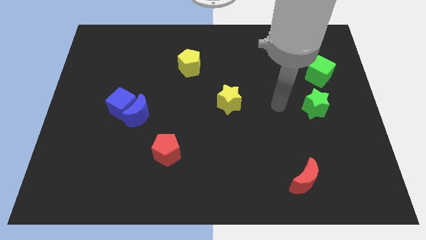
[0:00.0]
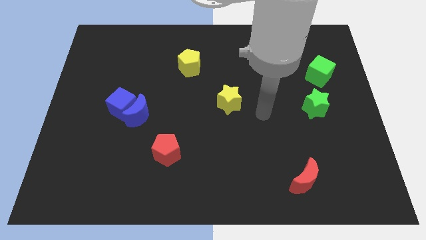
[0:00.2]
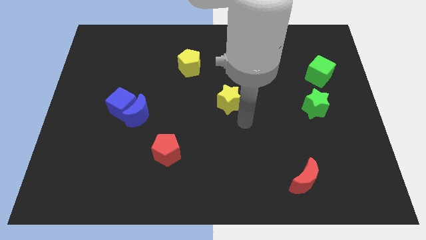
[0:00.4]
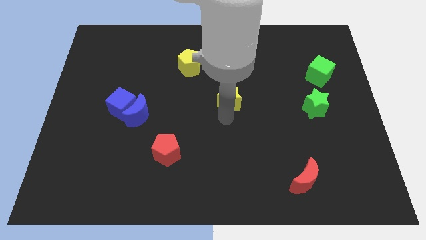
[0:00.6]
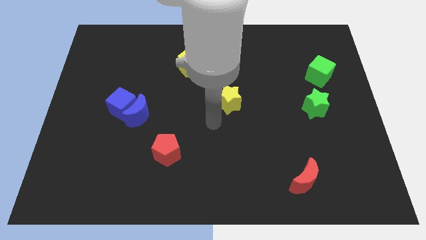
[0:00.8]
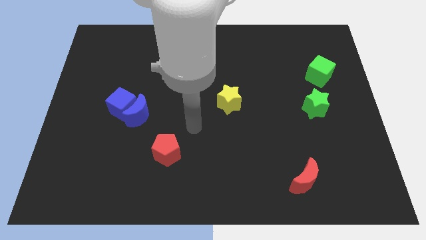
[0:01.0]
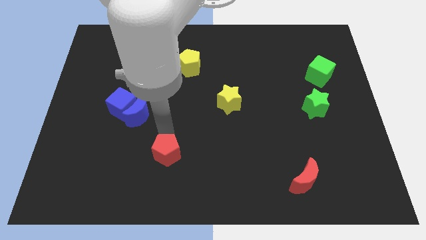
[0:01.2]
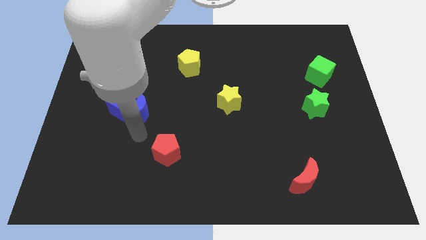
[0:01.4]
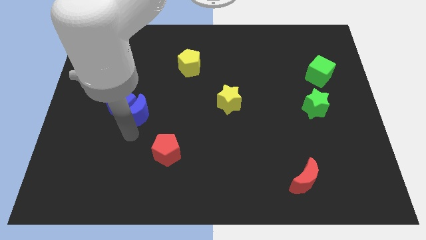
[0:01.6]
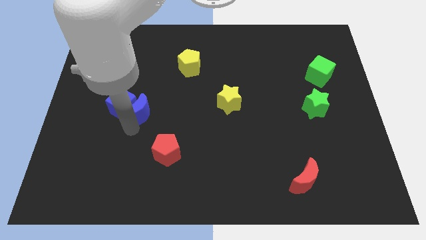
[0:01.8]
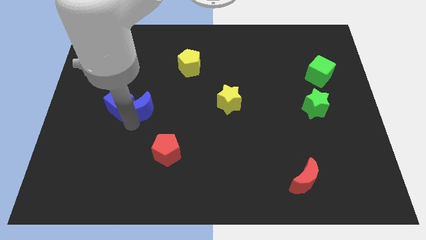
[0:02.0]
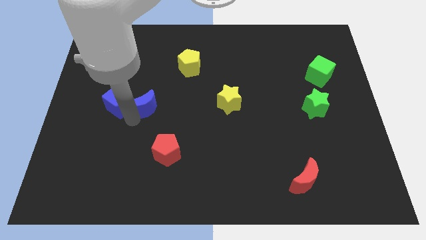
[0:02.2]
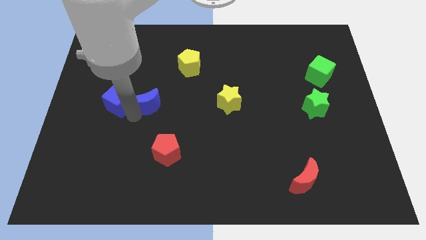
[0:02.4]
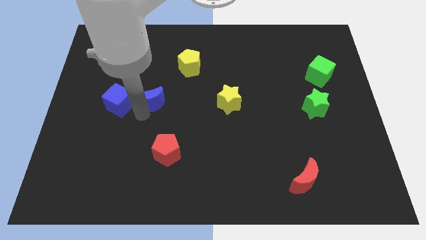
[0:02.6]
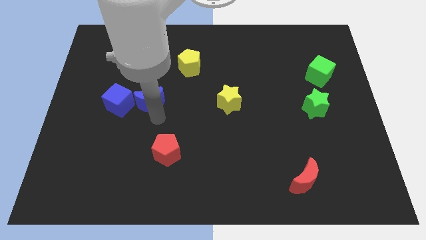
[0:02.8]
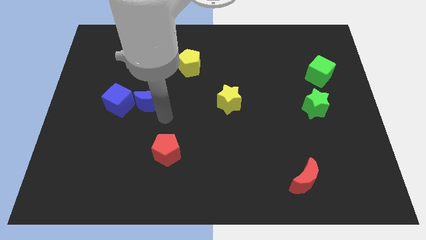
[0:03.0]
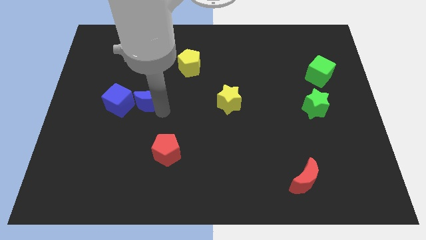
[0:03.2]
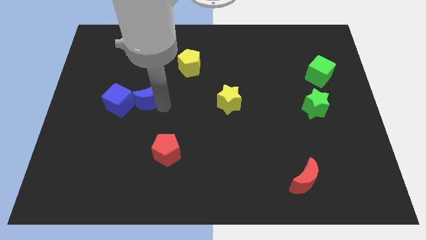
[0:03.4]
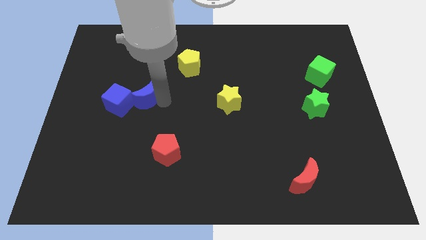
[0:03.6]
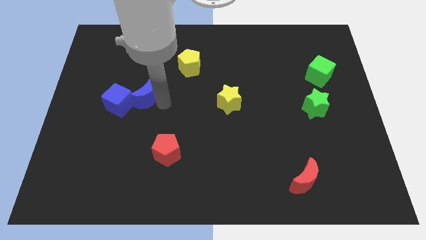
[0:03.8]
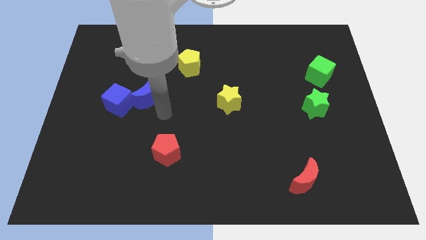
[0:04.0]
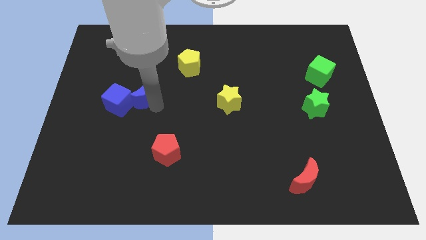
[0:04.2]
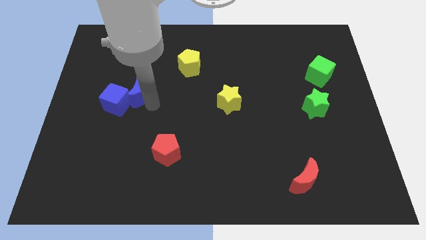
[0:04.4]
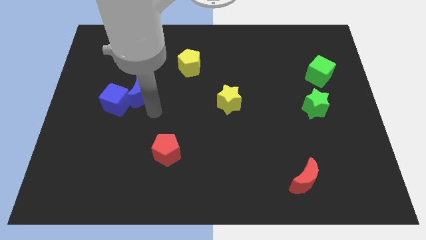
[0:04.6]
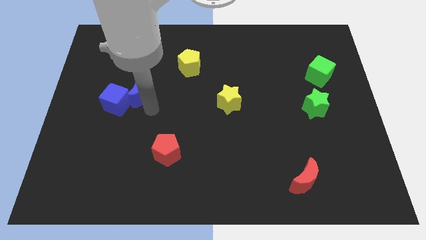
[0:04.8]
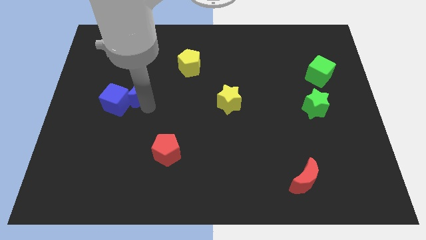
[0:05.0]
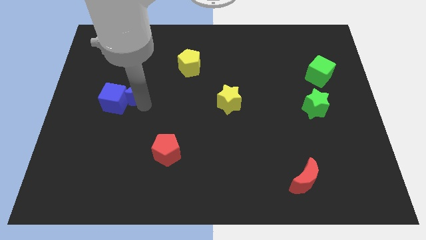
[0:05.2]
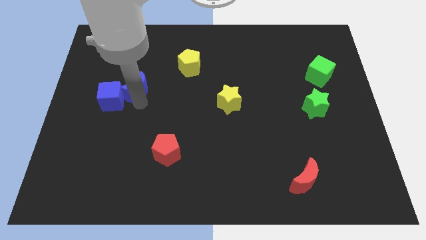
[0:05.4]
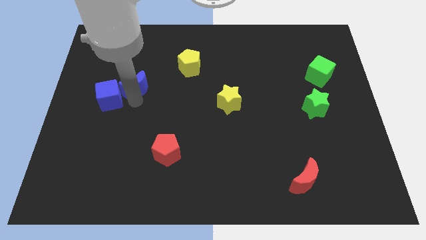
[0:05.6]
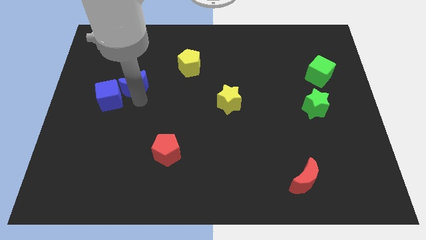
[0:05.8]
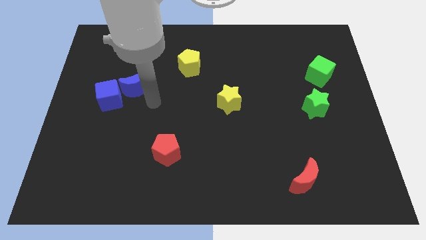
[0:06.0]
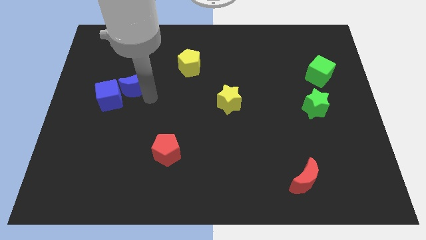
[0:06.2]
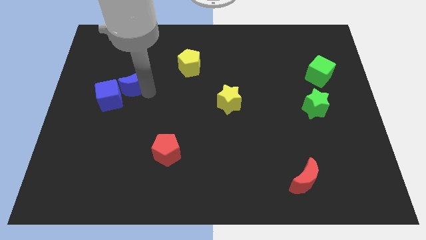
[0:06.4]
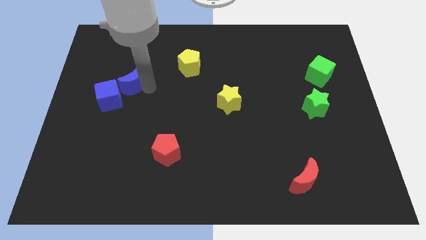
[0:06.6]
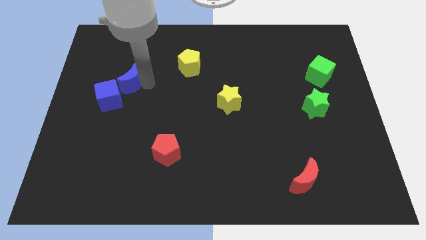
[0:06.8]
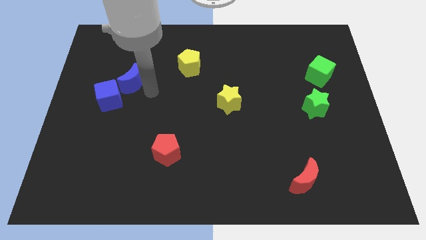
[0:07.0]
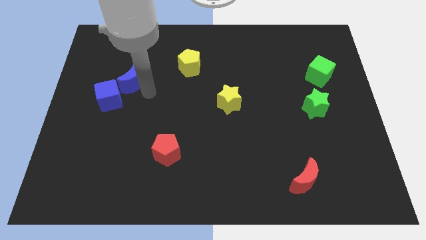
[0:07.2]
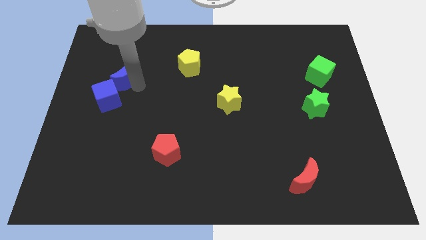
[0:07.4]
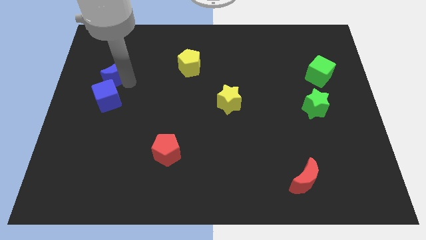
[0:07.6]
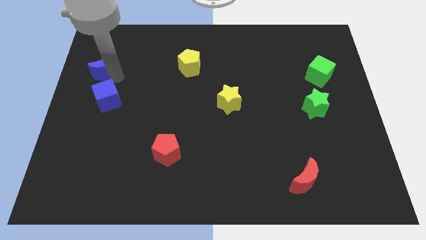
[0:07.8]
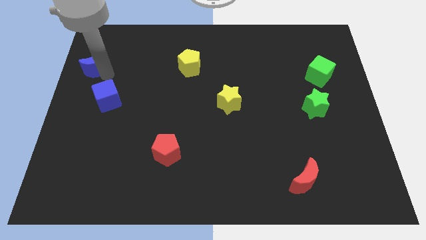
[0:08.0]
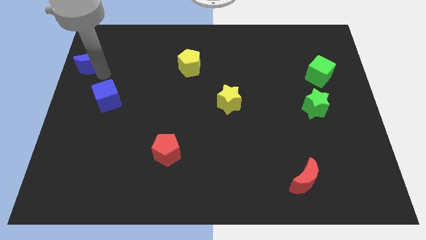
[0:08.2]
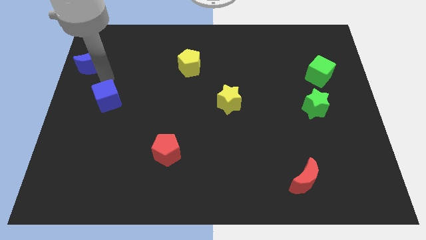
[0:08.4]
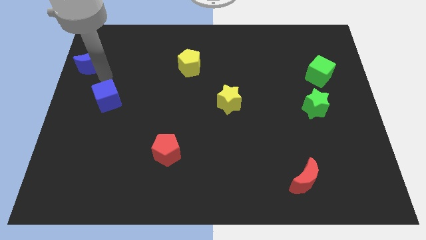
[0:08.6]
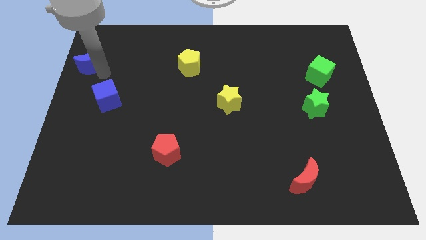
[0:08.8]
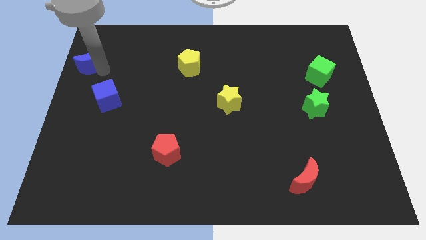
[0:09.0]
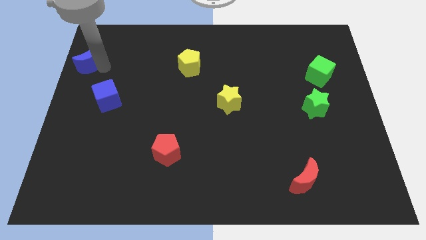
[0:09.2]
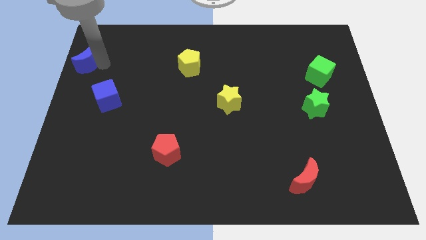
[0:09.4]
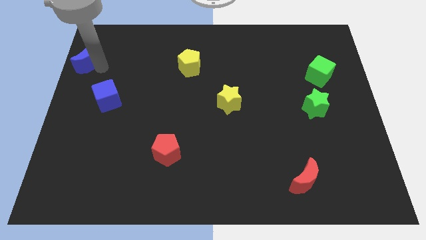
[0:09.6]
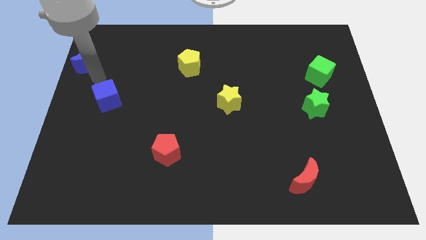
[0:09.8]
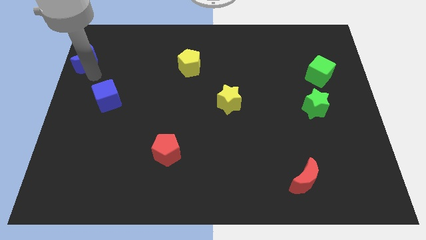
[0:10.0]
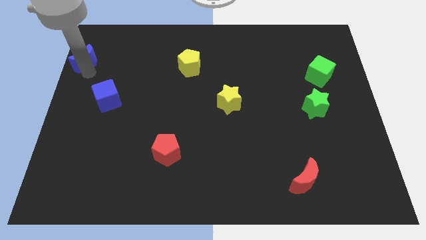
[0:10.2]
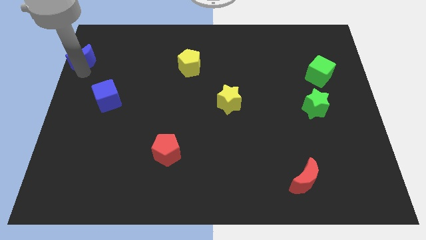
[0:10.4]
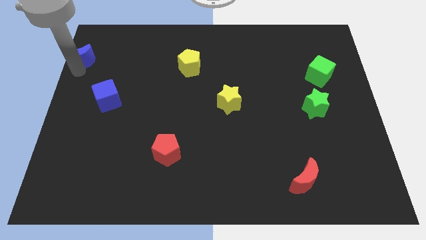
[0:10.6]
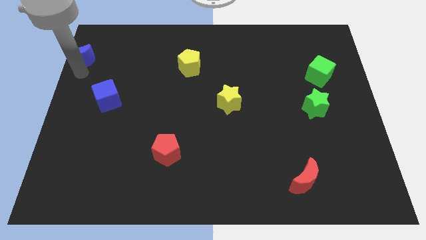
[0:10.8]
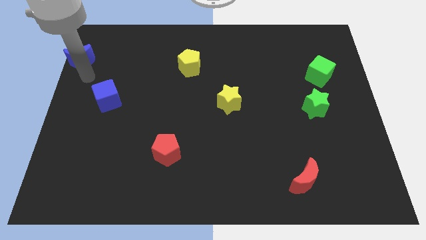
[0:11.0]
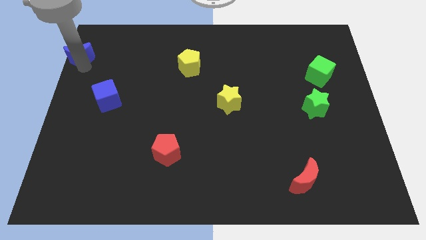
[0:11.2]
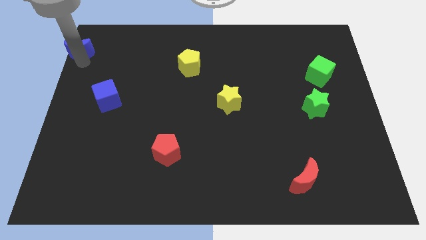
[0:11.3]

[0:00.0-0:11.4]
slide the blue moon to the top left corner

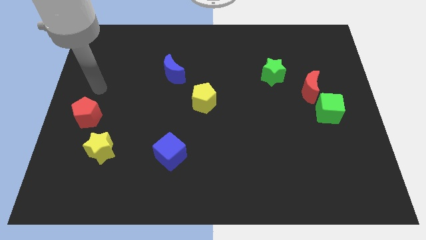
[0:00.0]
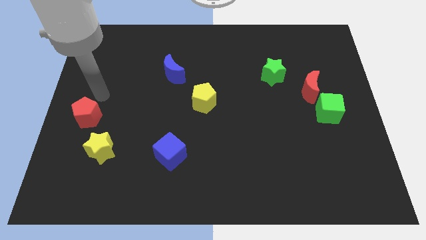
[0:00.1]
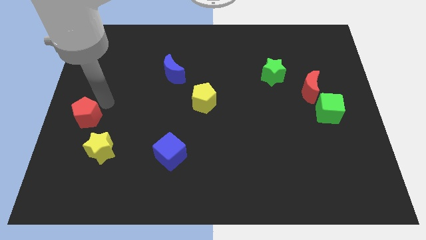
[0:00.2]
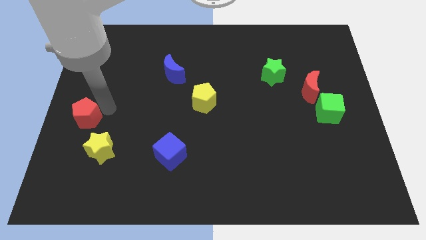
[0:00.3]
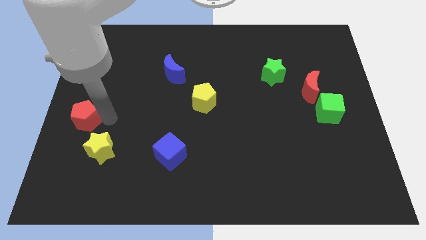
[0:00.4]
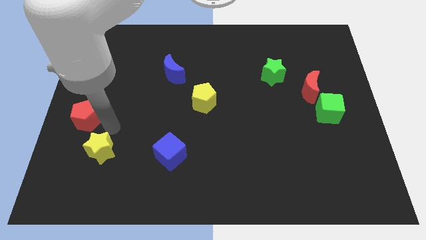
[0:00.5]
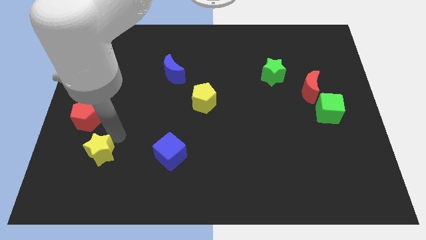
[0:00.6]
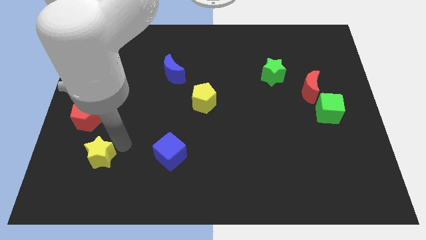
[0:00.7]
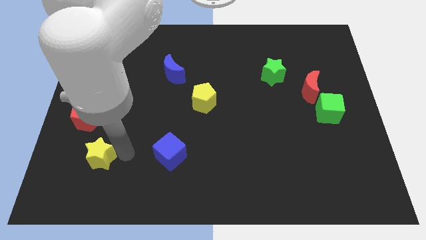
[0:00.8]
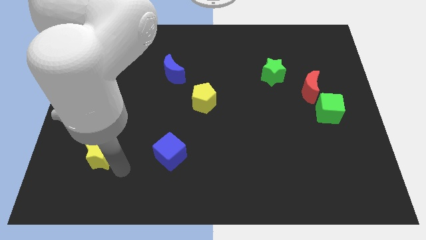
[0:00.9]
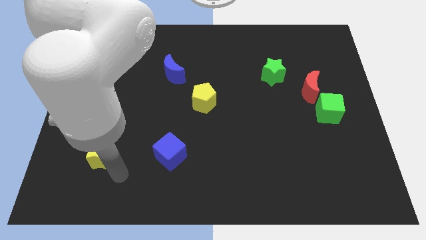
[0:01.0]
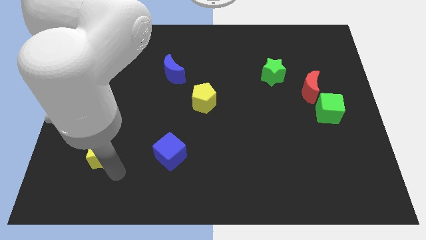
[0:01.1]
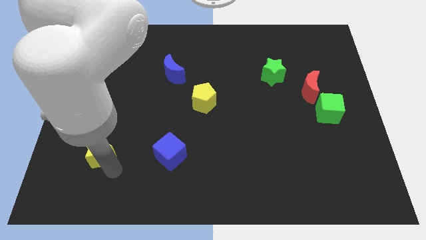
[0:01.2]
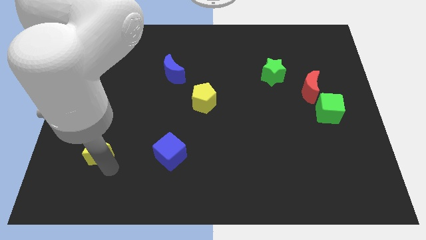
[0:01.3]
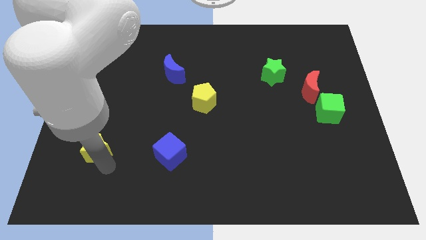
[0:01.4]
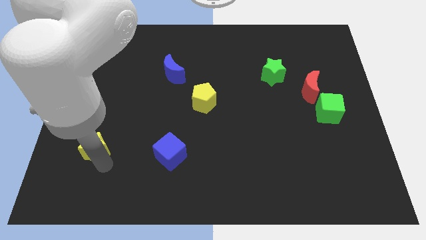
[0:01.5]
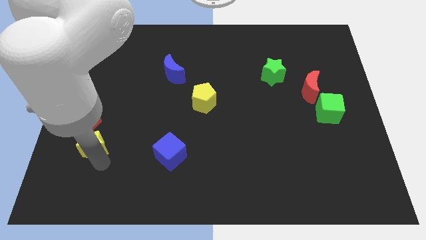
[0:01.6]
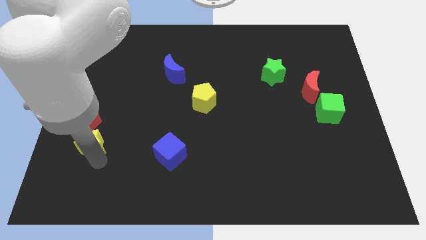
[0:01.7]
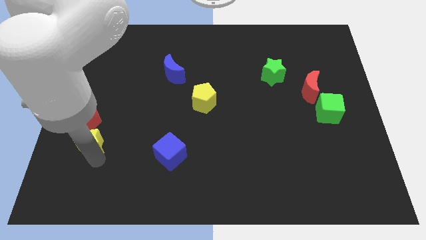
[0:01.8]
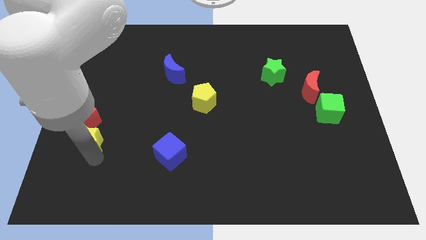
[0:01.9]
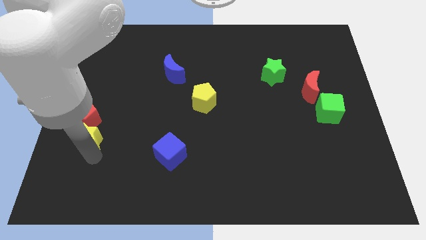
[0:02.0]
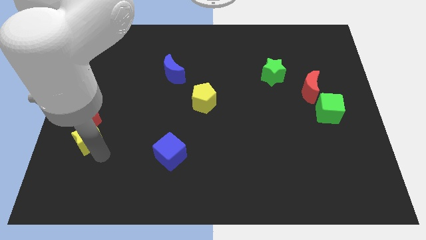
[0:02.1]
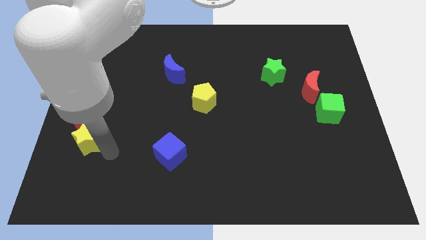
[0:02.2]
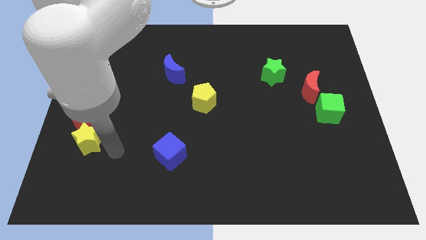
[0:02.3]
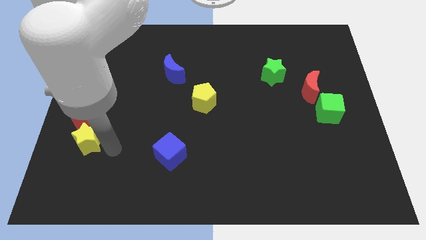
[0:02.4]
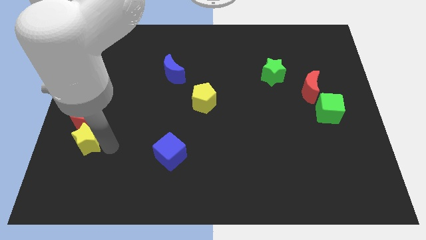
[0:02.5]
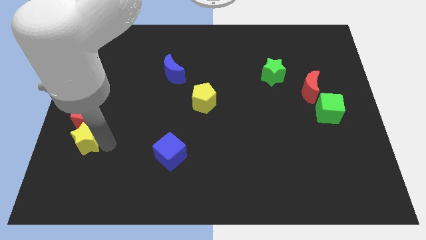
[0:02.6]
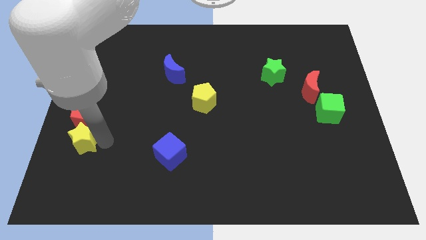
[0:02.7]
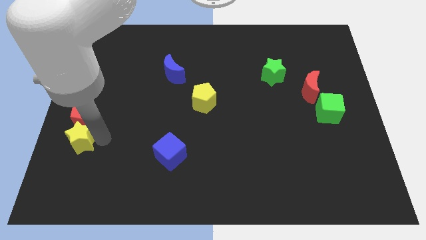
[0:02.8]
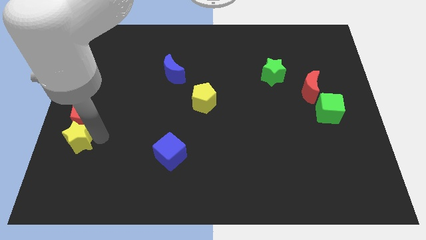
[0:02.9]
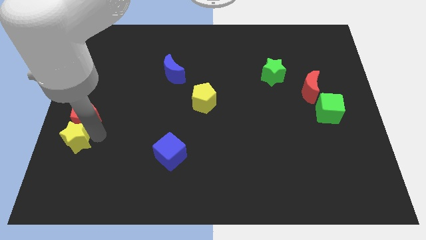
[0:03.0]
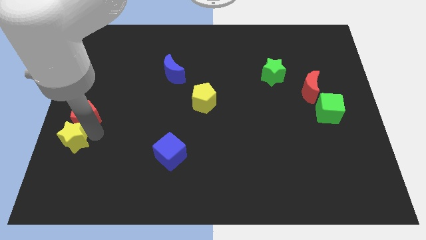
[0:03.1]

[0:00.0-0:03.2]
push the yellow star to the center left
